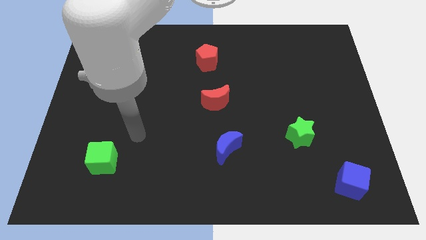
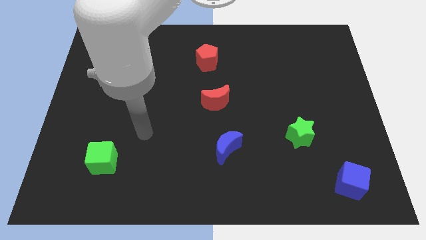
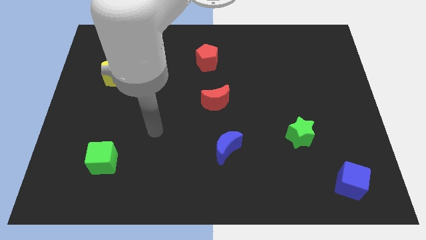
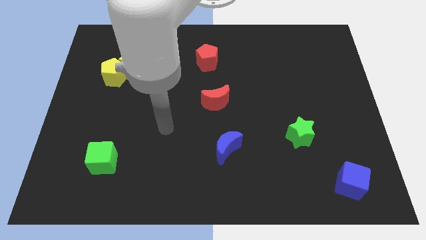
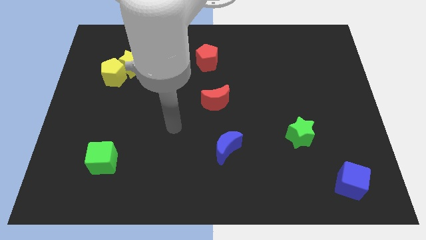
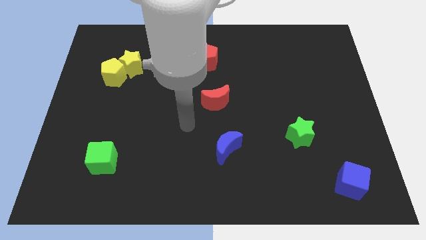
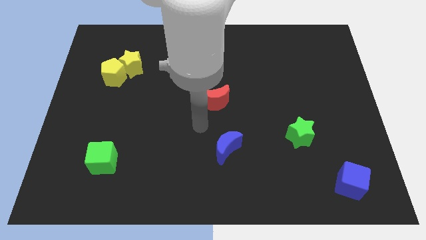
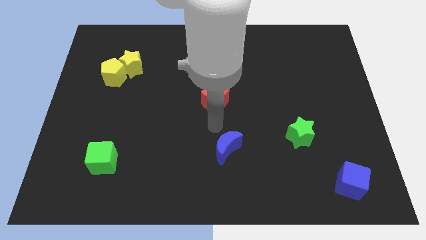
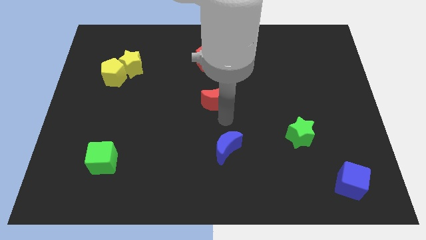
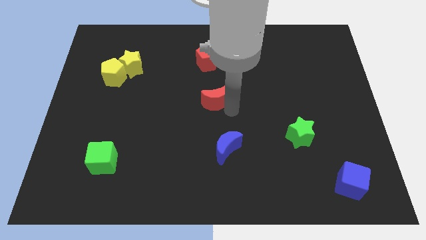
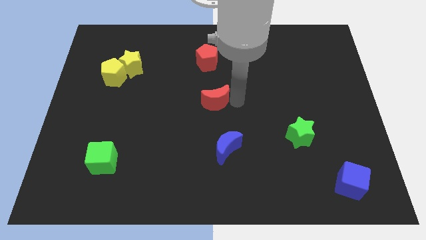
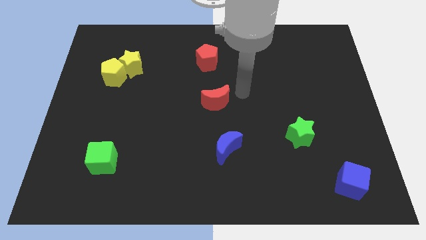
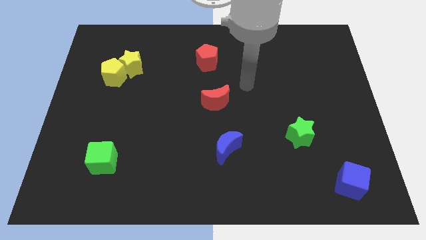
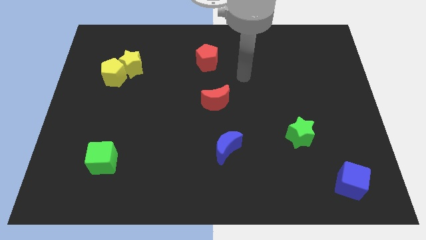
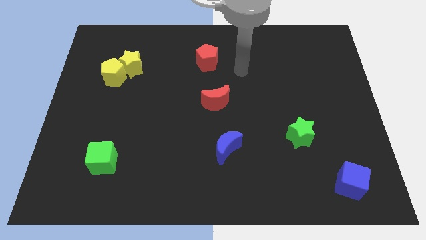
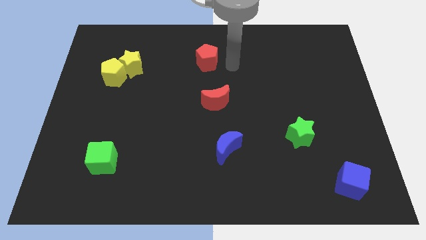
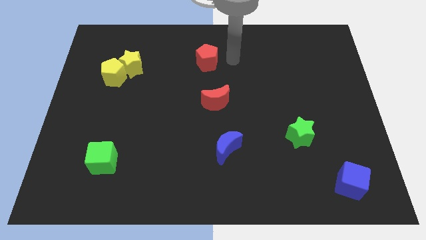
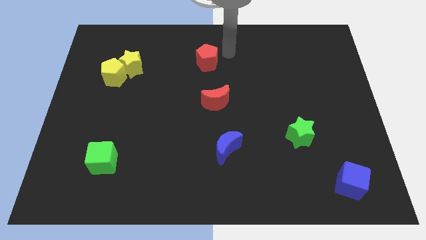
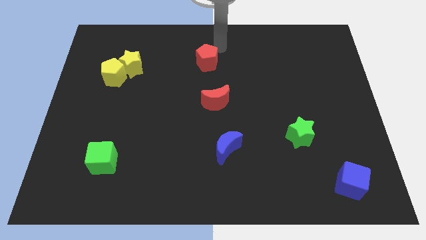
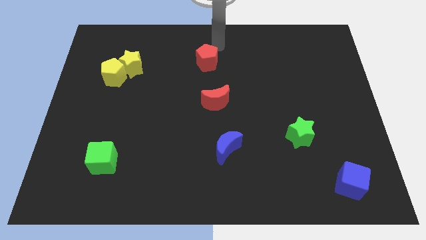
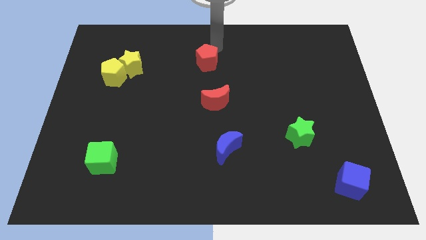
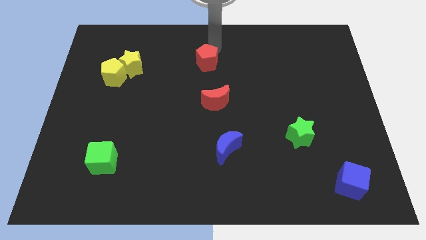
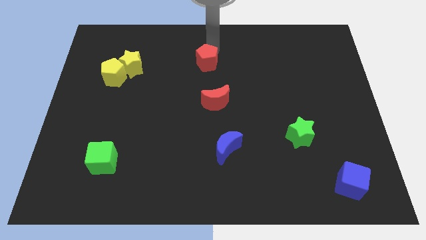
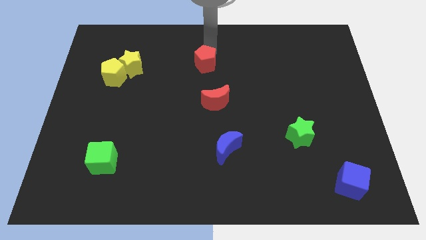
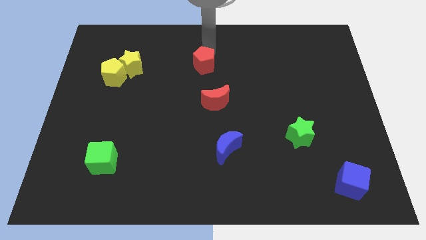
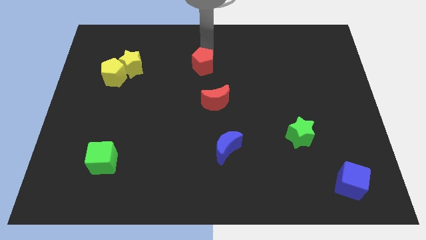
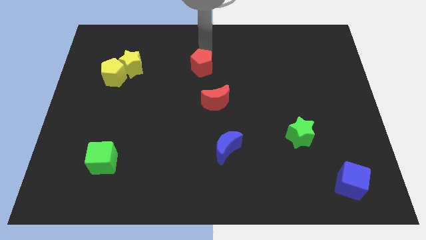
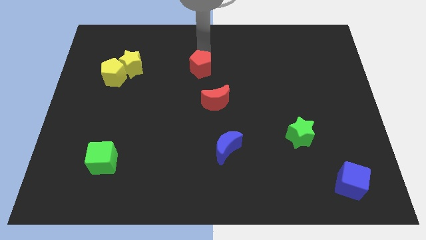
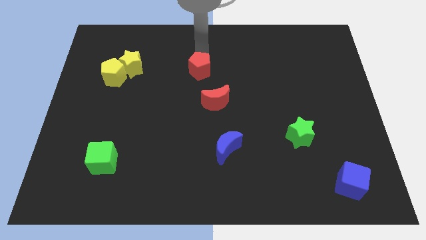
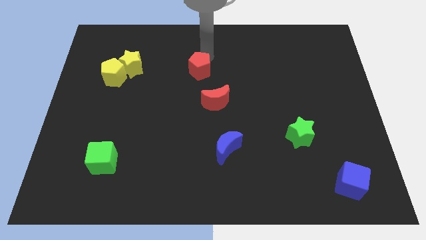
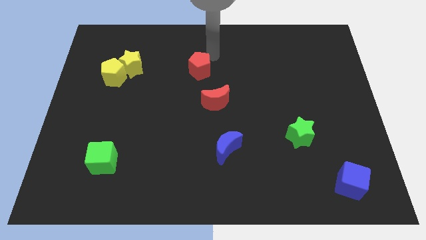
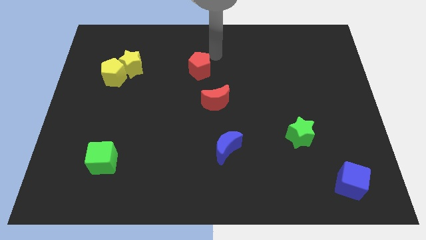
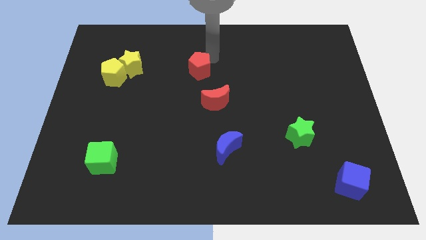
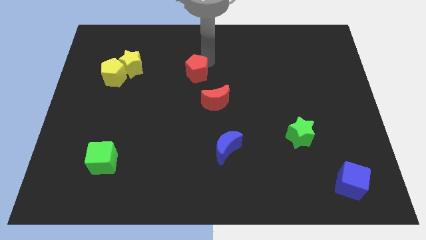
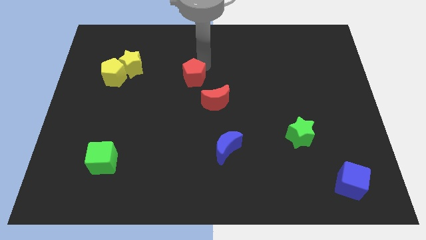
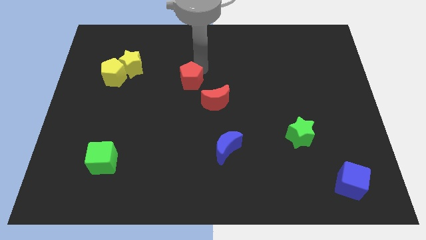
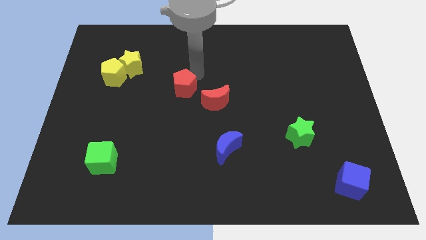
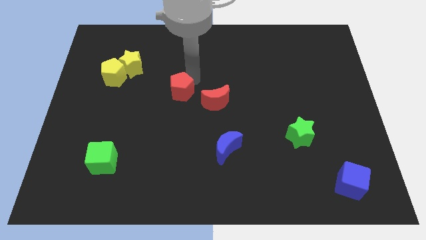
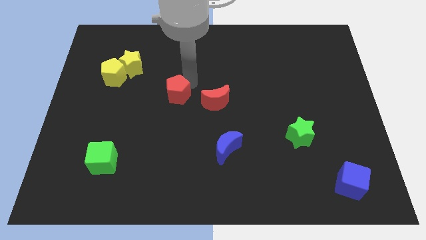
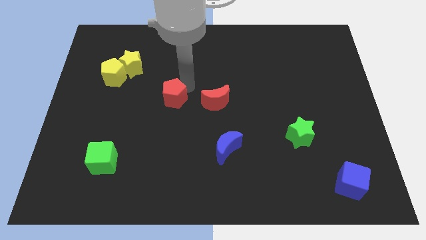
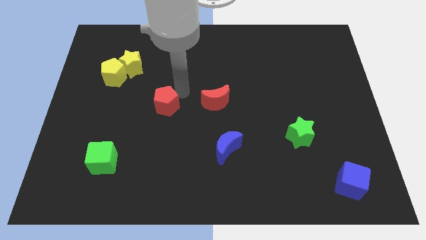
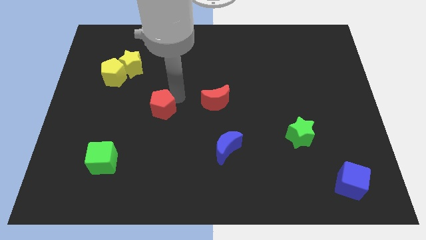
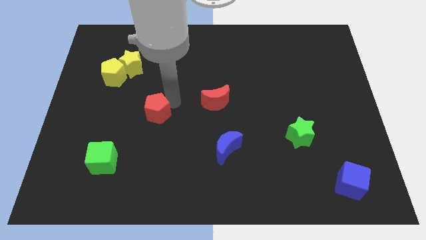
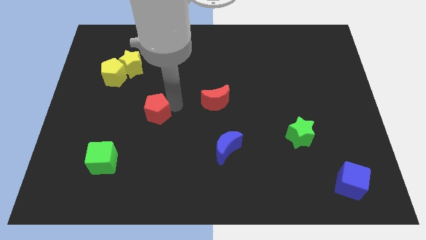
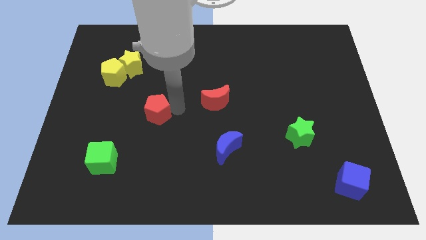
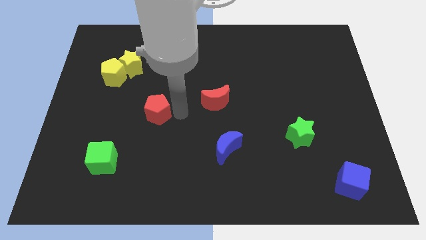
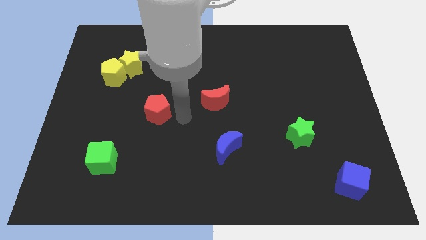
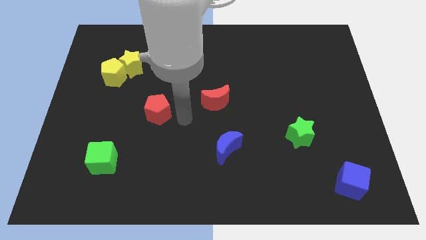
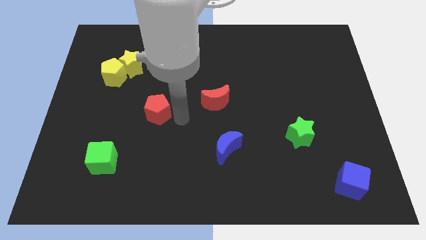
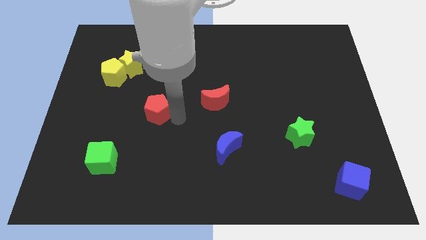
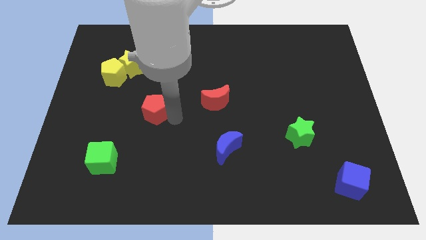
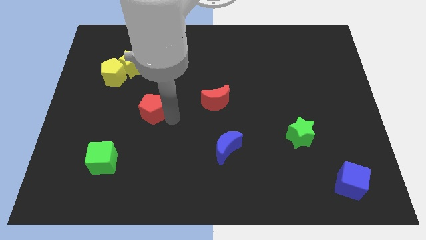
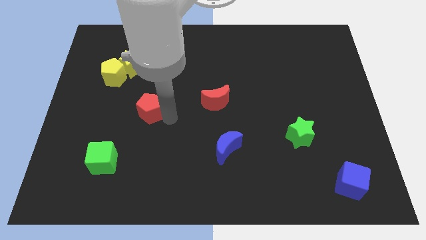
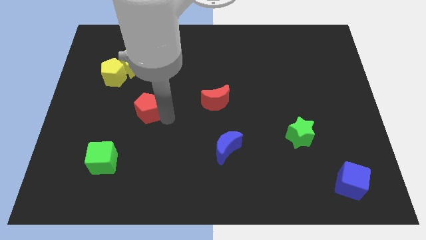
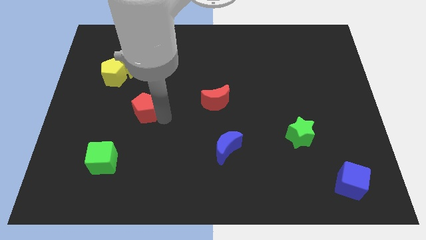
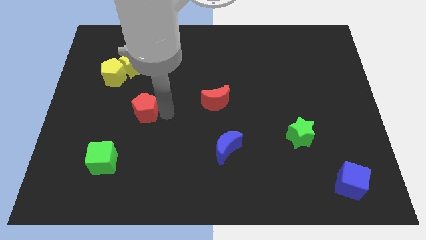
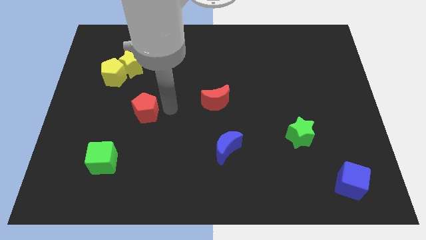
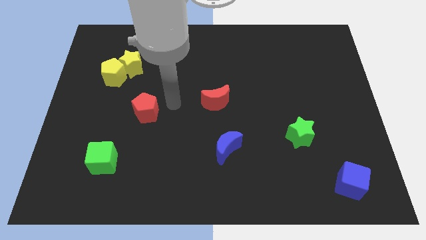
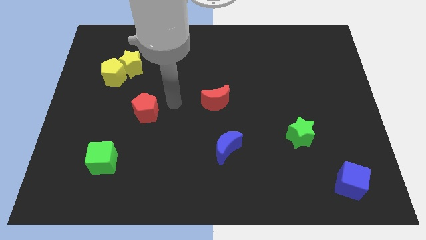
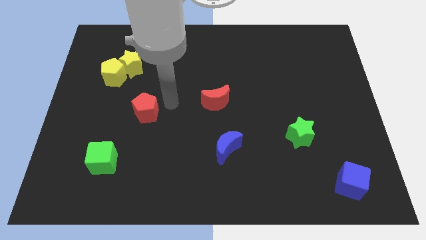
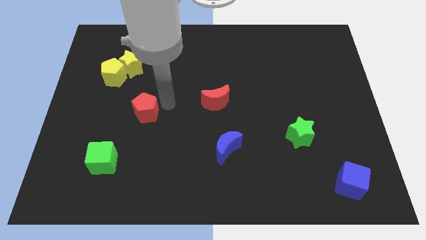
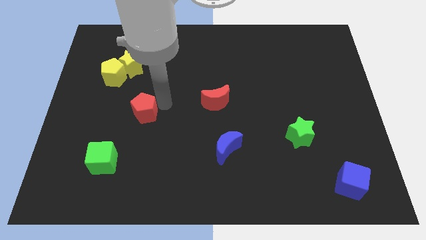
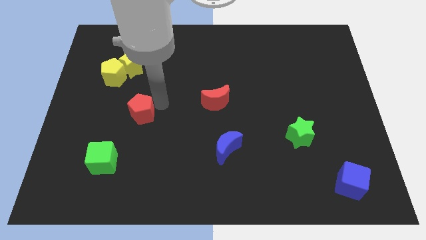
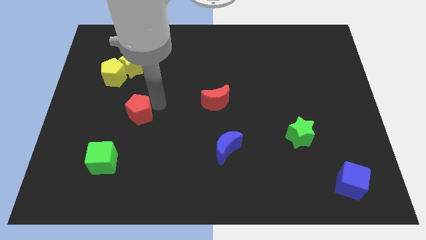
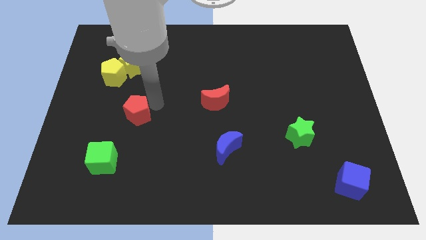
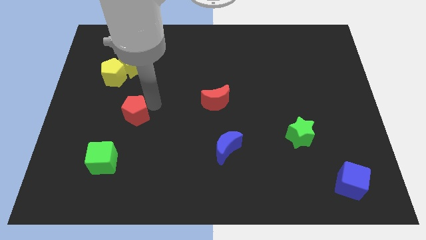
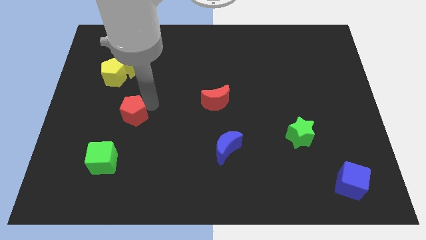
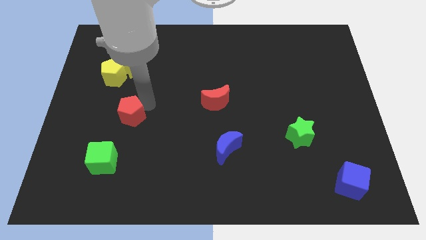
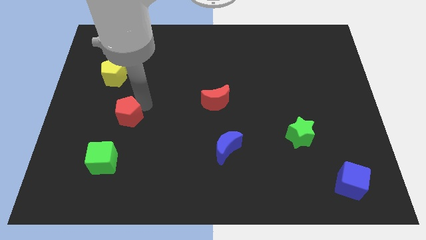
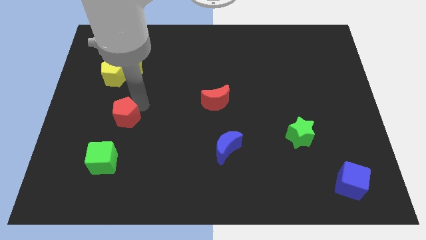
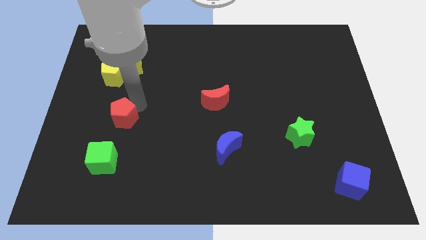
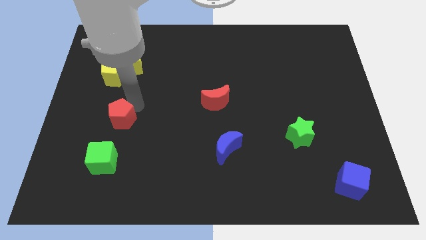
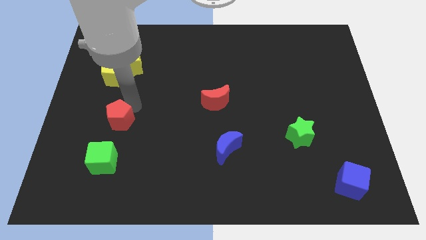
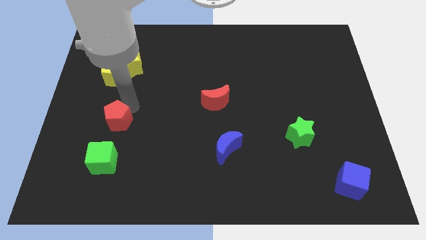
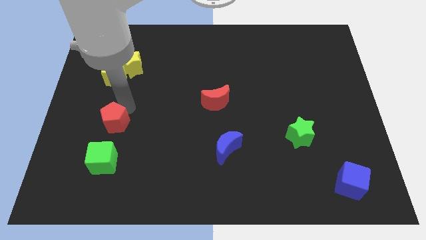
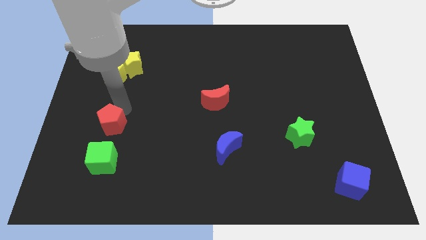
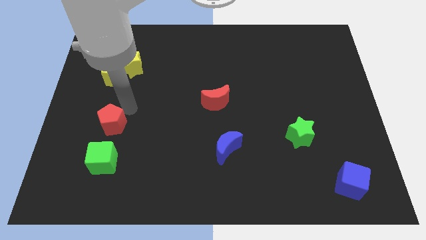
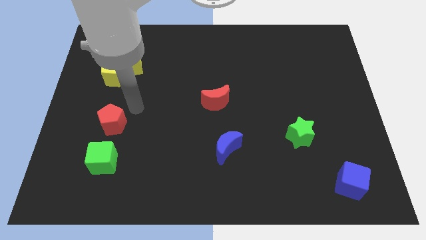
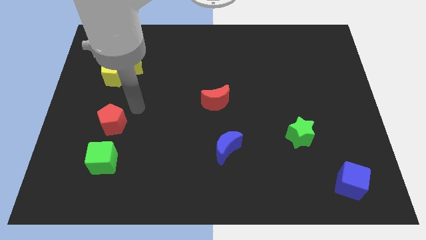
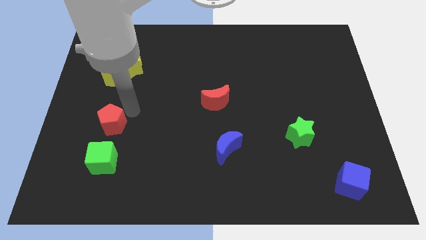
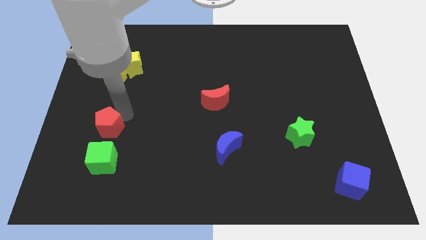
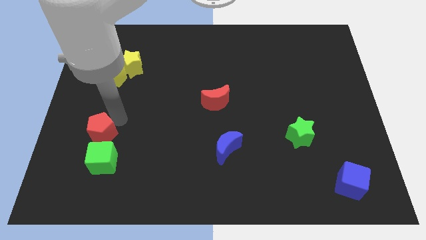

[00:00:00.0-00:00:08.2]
move the red pentagon diagonally up and to the left of the green cube
